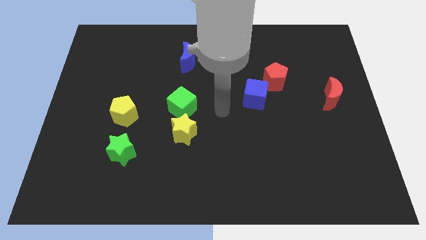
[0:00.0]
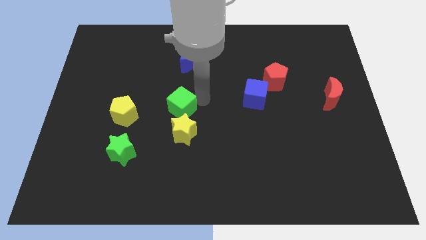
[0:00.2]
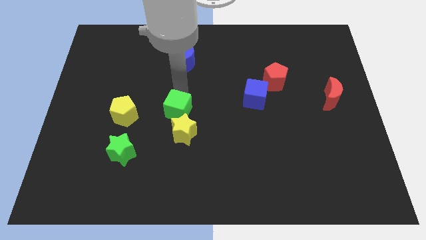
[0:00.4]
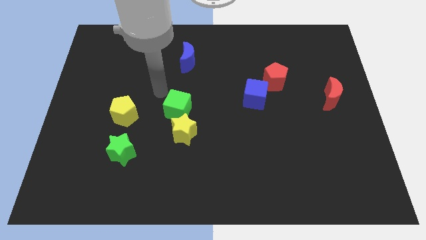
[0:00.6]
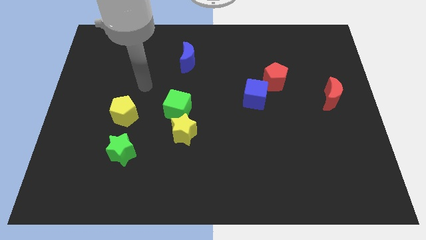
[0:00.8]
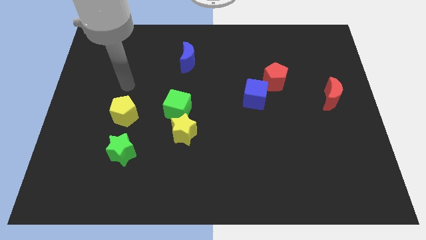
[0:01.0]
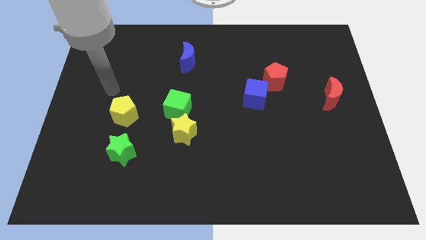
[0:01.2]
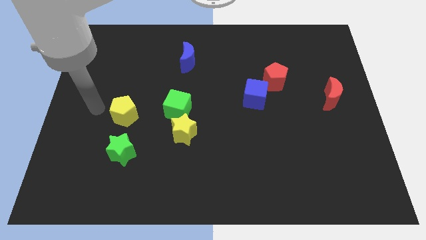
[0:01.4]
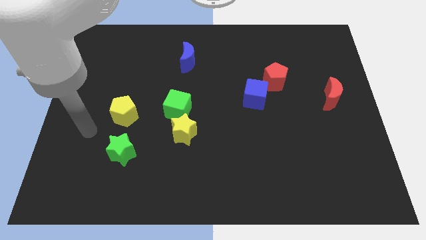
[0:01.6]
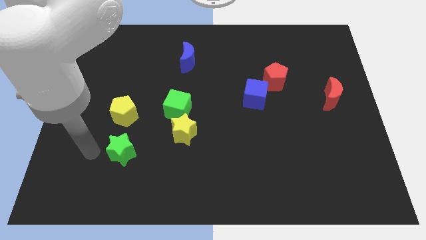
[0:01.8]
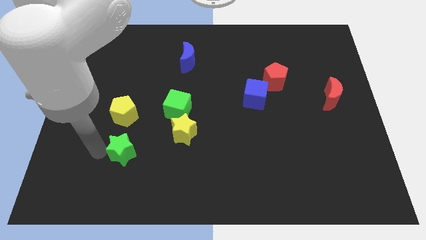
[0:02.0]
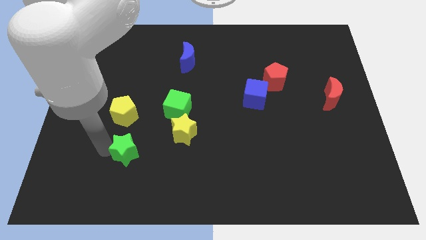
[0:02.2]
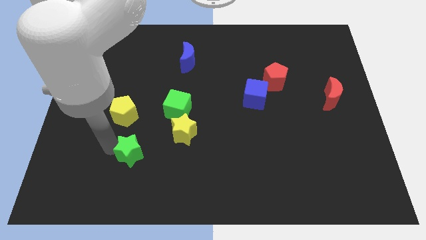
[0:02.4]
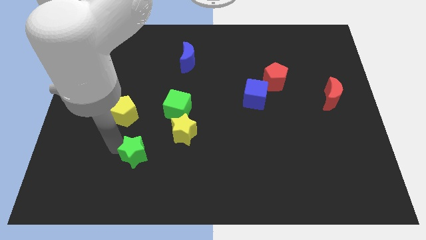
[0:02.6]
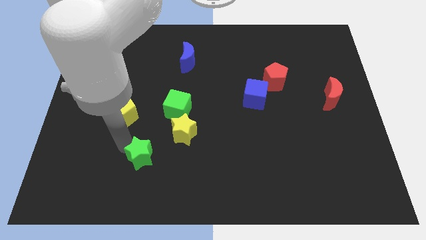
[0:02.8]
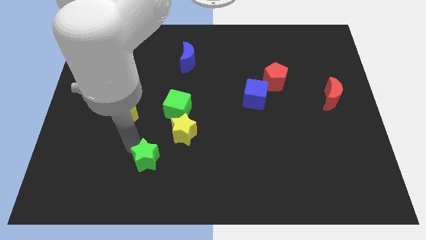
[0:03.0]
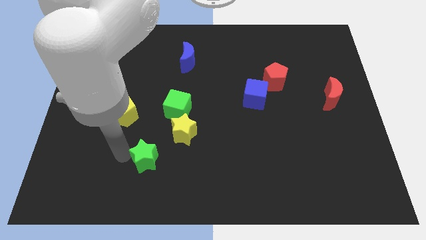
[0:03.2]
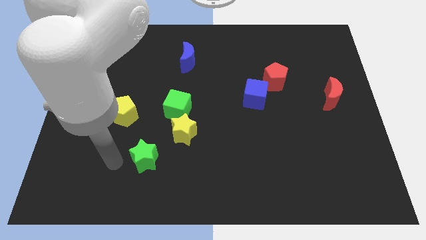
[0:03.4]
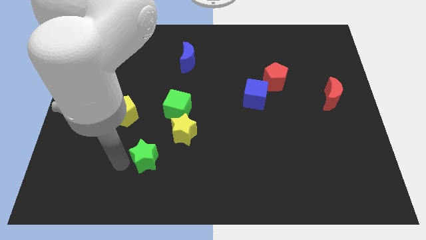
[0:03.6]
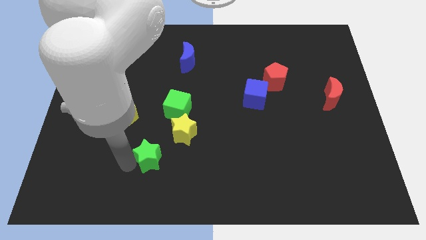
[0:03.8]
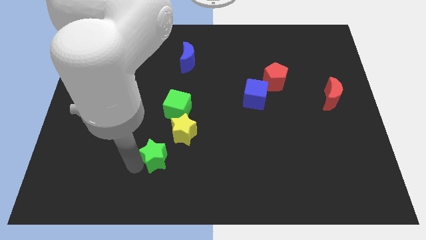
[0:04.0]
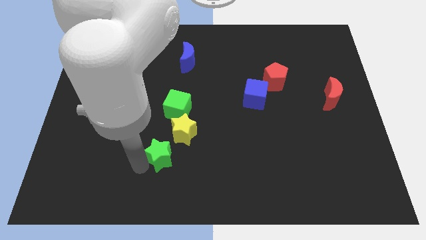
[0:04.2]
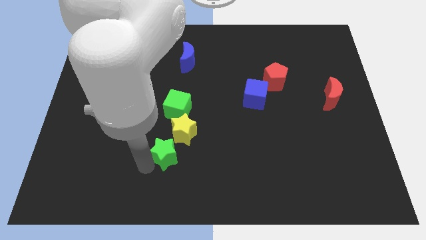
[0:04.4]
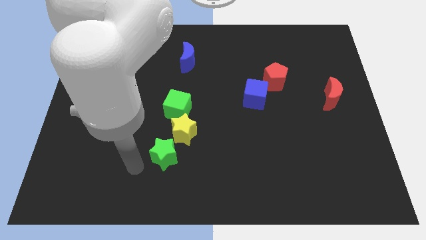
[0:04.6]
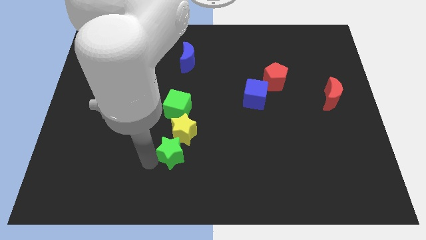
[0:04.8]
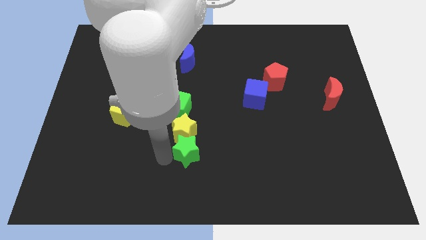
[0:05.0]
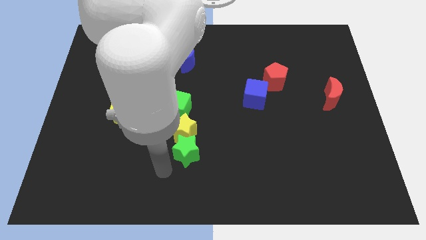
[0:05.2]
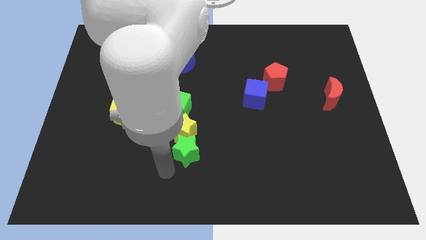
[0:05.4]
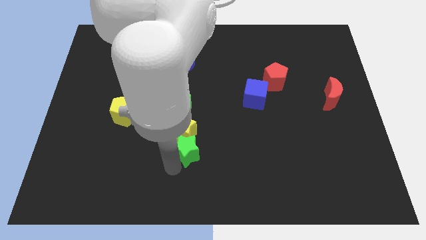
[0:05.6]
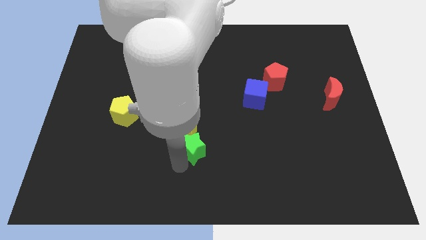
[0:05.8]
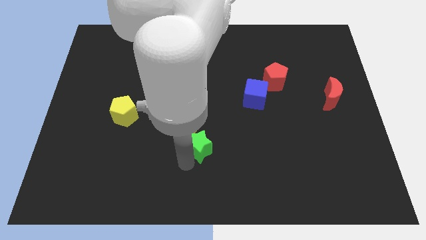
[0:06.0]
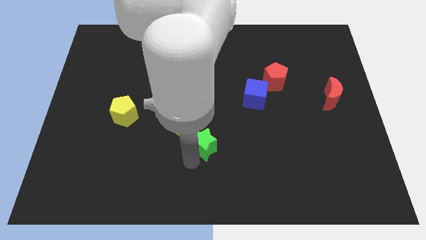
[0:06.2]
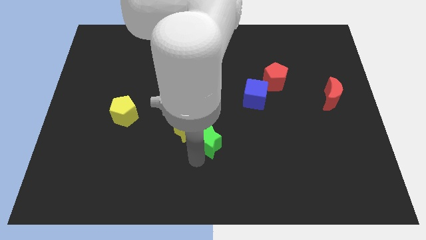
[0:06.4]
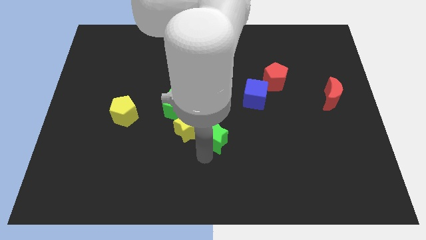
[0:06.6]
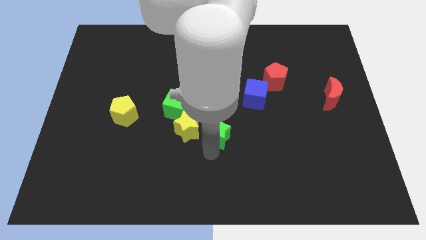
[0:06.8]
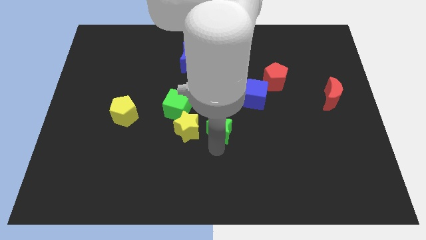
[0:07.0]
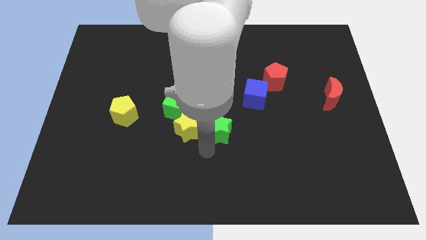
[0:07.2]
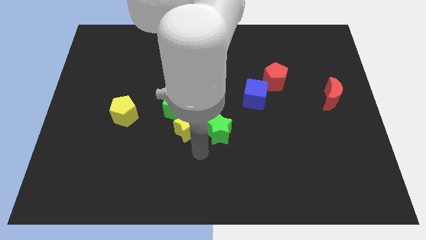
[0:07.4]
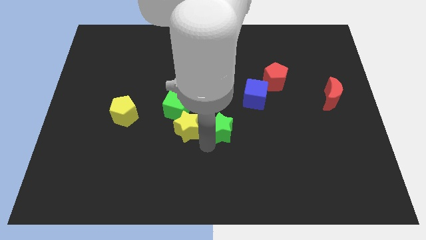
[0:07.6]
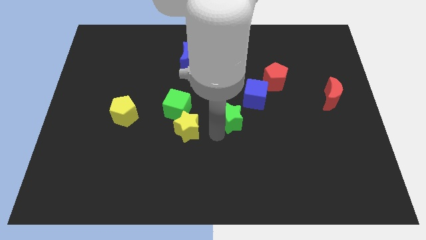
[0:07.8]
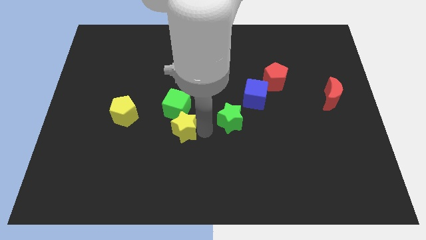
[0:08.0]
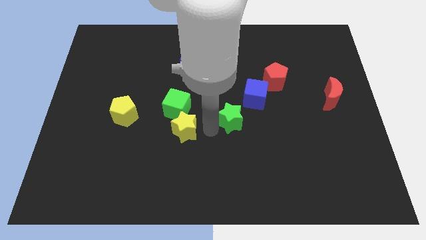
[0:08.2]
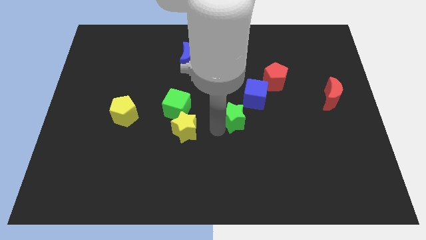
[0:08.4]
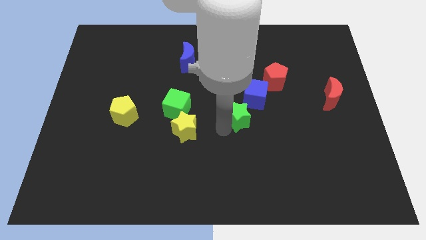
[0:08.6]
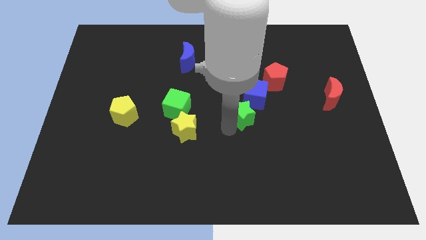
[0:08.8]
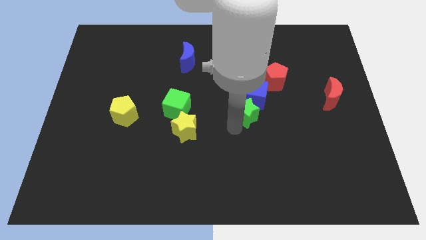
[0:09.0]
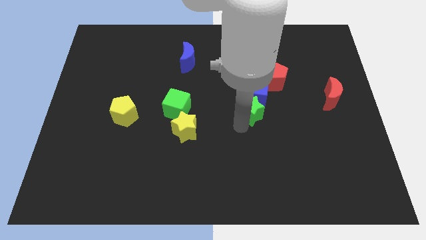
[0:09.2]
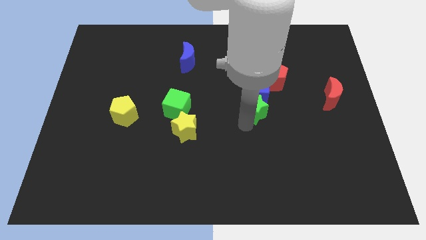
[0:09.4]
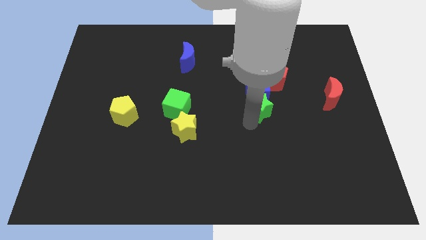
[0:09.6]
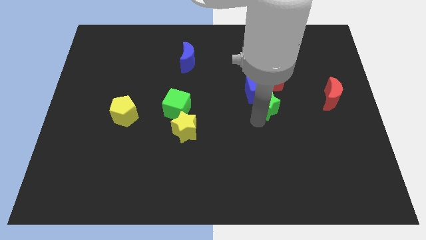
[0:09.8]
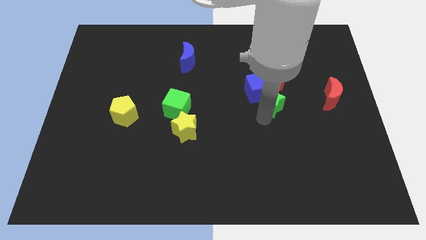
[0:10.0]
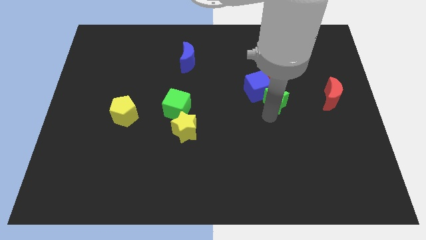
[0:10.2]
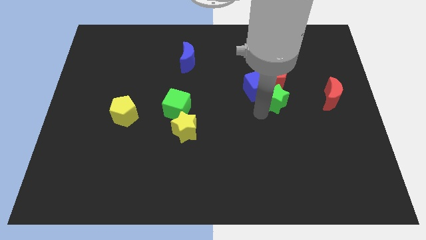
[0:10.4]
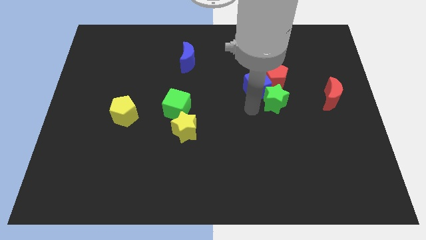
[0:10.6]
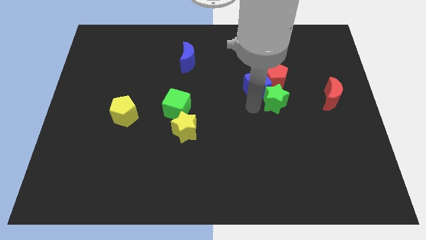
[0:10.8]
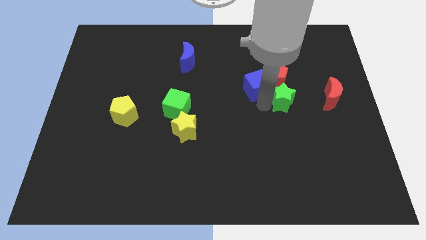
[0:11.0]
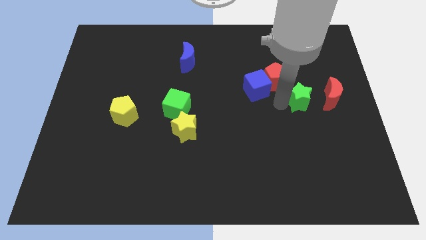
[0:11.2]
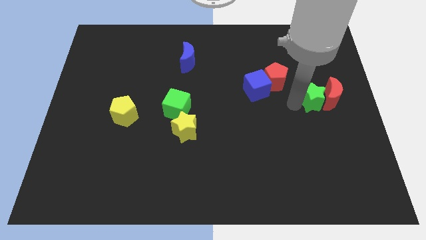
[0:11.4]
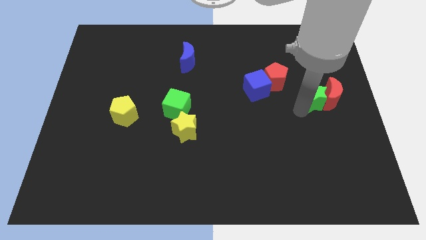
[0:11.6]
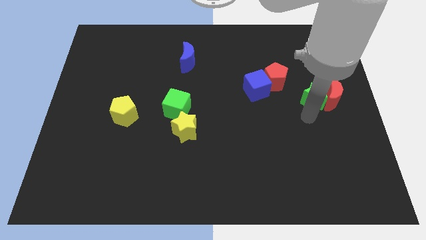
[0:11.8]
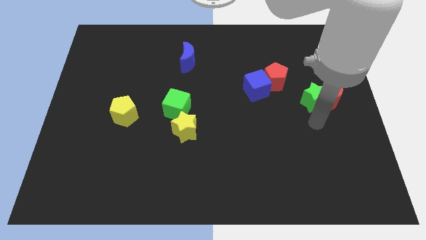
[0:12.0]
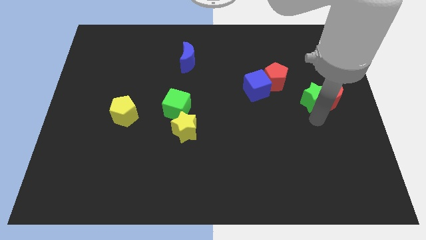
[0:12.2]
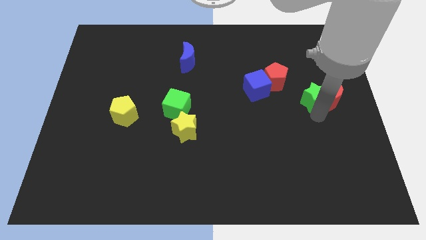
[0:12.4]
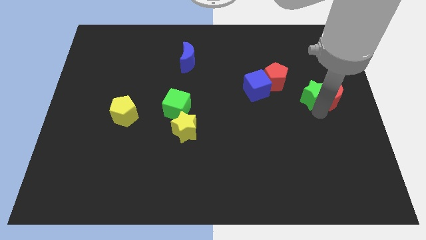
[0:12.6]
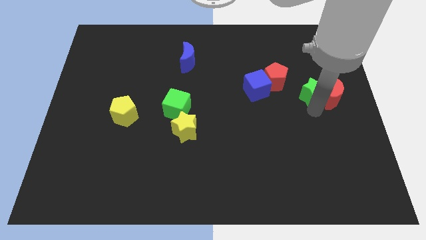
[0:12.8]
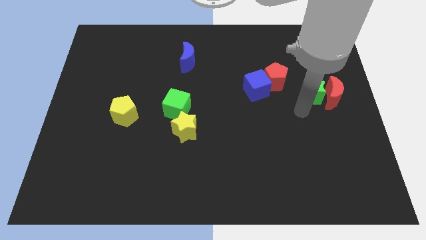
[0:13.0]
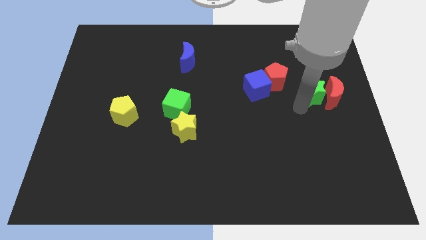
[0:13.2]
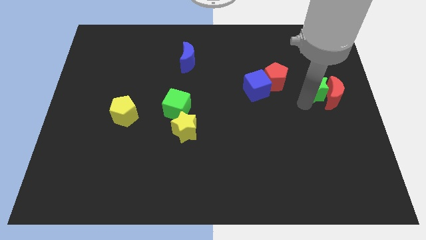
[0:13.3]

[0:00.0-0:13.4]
push the green star to the center right

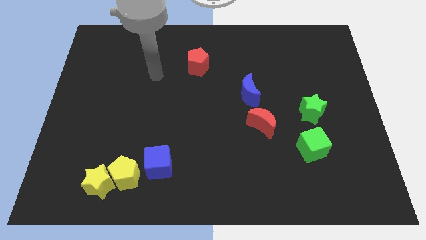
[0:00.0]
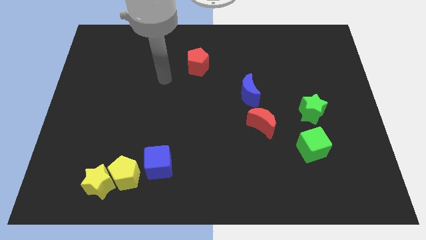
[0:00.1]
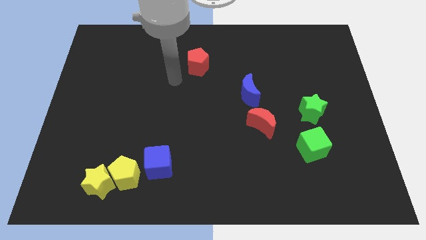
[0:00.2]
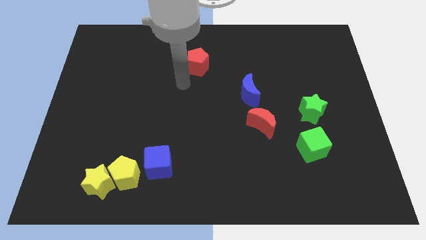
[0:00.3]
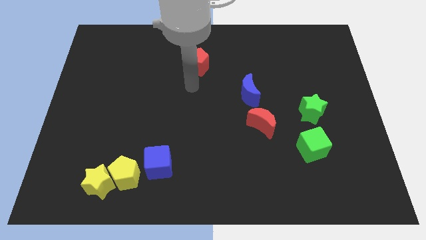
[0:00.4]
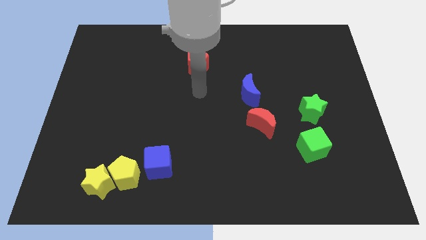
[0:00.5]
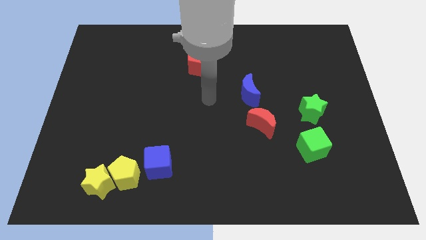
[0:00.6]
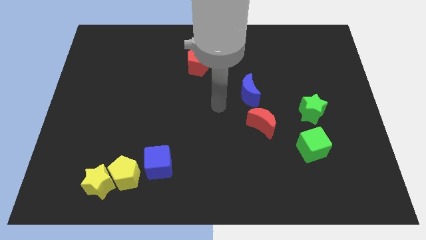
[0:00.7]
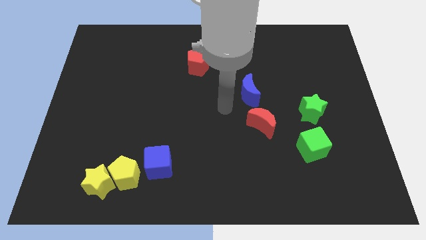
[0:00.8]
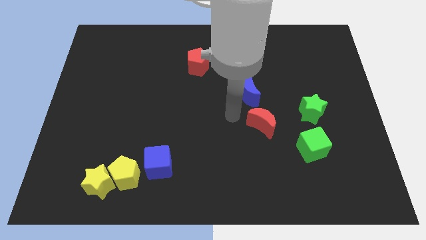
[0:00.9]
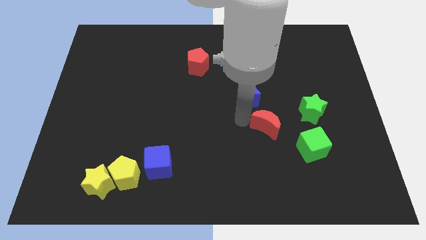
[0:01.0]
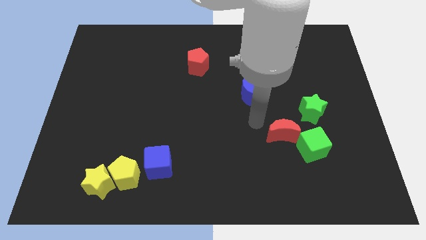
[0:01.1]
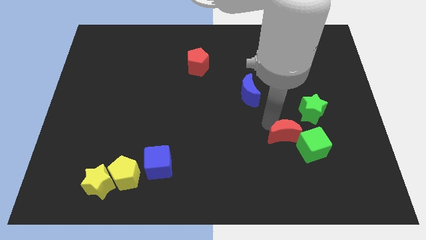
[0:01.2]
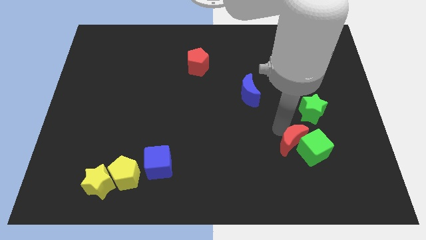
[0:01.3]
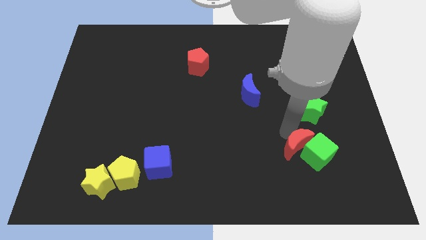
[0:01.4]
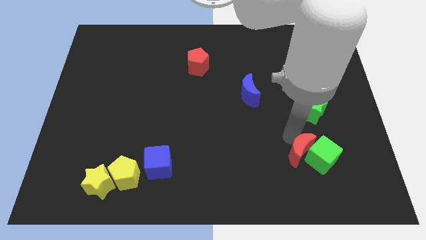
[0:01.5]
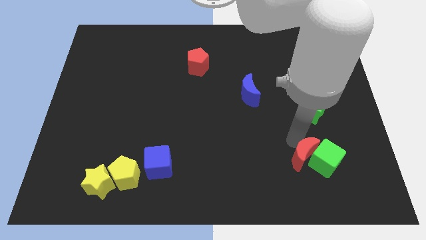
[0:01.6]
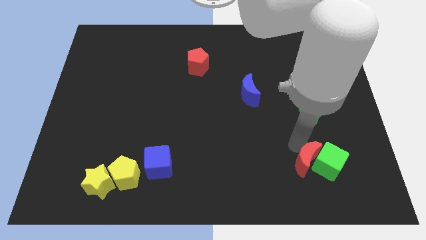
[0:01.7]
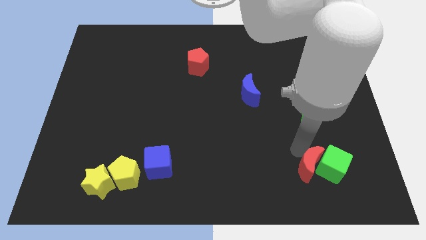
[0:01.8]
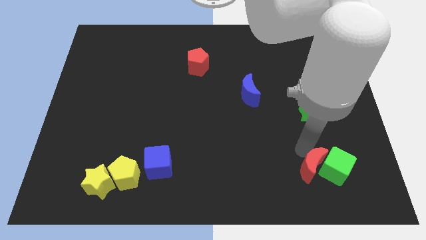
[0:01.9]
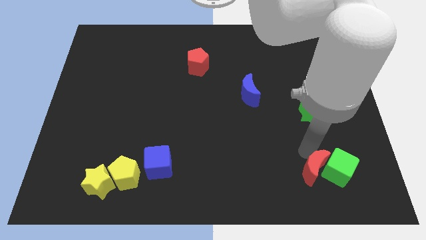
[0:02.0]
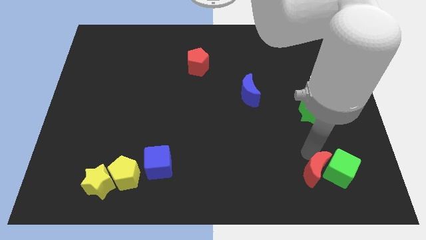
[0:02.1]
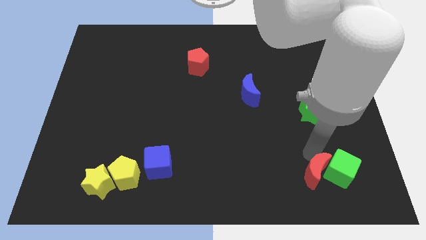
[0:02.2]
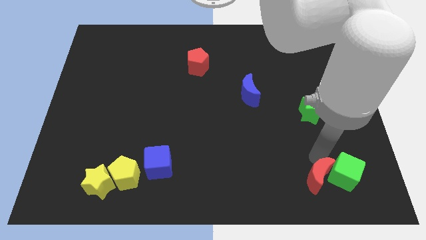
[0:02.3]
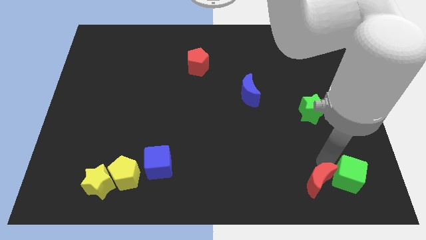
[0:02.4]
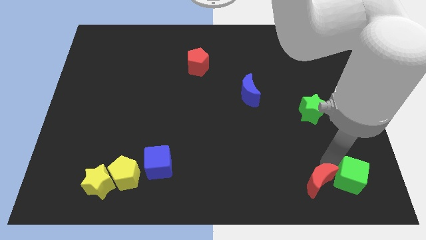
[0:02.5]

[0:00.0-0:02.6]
push the green cube to the bottom right corner
